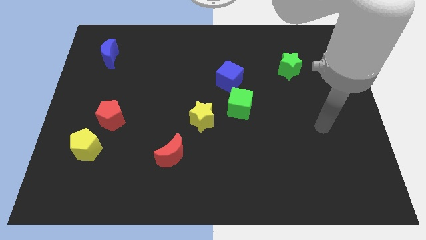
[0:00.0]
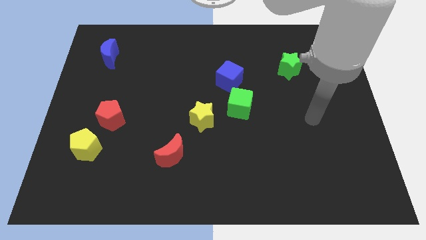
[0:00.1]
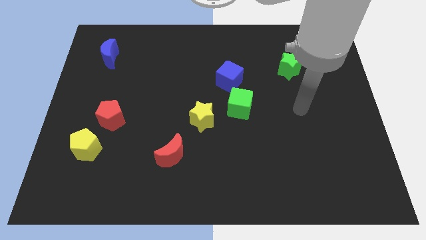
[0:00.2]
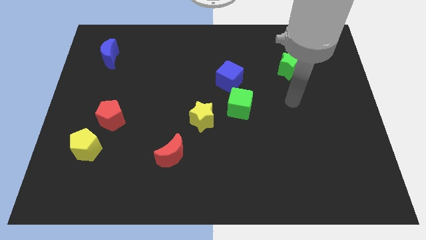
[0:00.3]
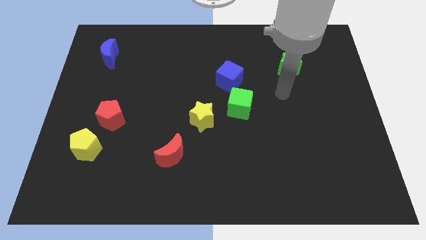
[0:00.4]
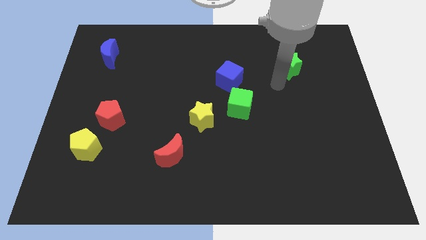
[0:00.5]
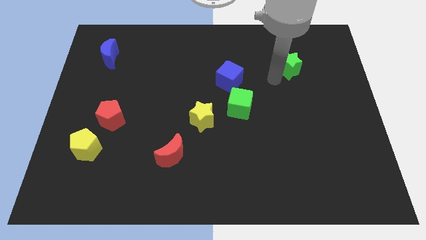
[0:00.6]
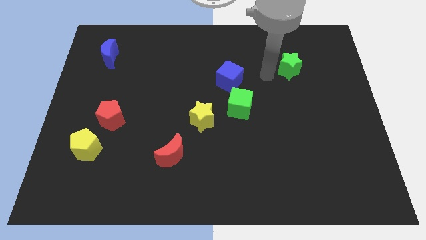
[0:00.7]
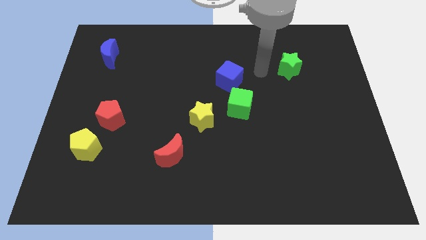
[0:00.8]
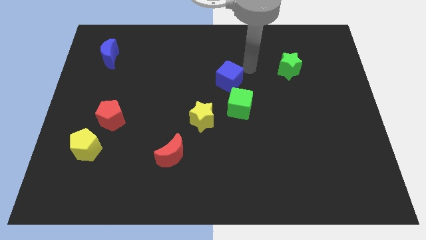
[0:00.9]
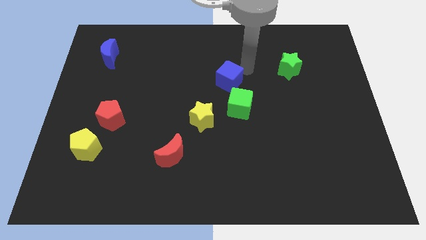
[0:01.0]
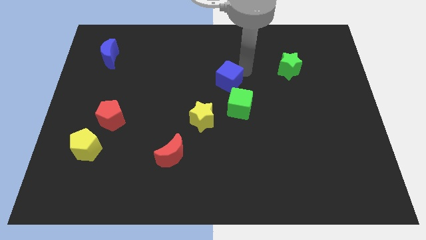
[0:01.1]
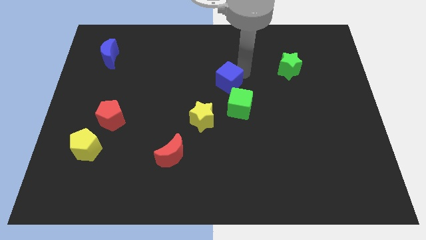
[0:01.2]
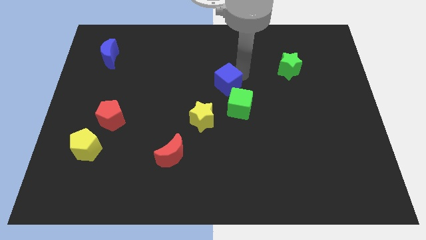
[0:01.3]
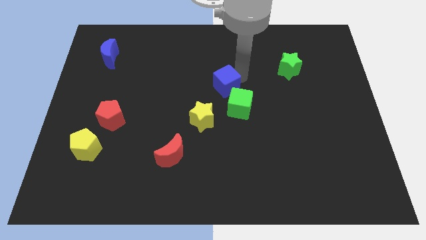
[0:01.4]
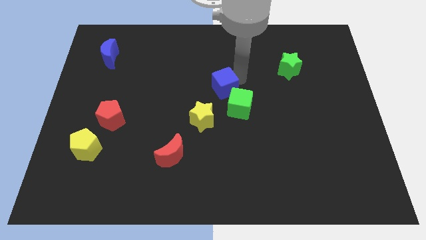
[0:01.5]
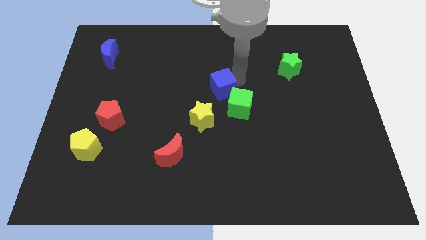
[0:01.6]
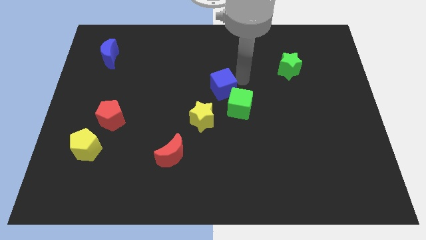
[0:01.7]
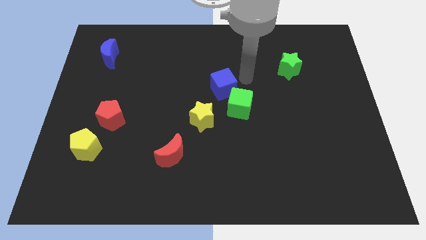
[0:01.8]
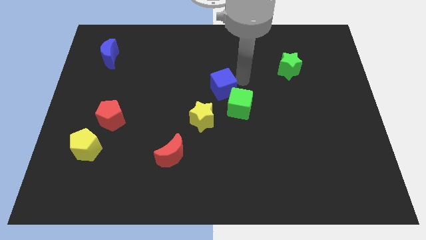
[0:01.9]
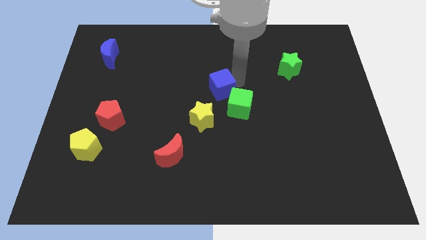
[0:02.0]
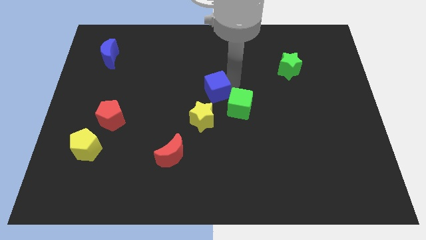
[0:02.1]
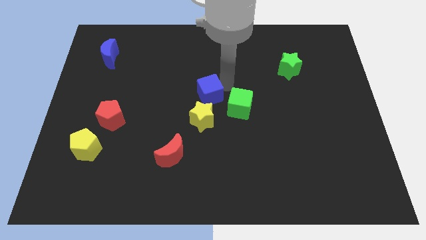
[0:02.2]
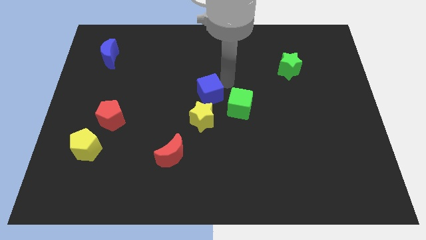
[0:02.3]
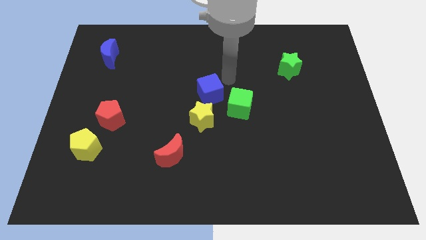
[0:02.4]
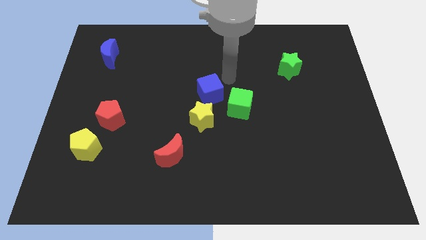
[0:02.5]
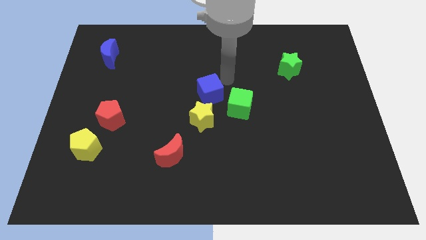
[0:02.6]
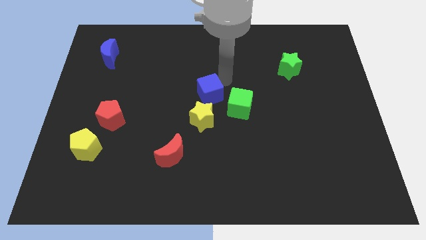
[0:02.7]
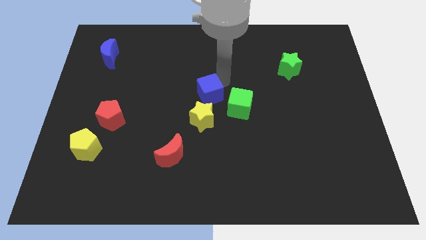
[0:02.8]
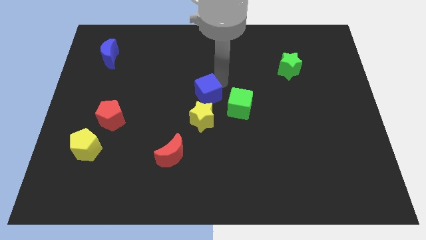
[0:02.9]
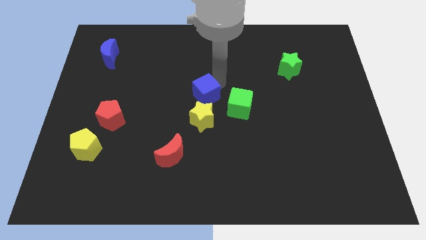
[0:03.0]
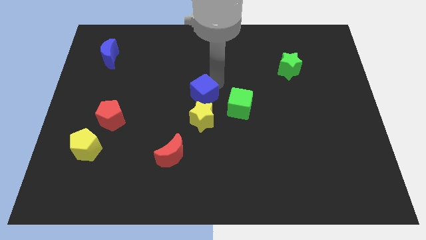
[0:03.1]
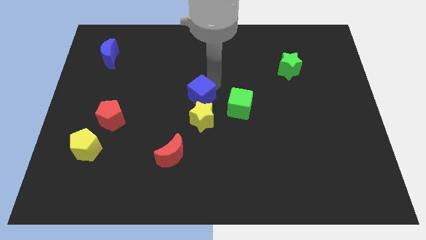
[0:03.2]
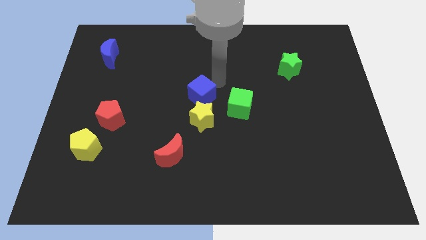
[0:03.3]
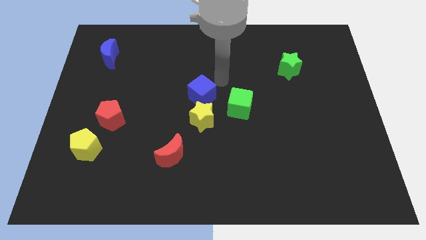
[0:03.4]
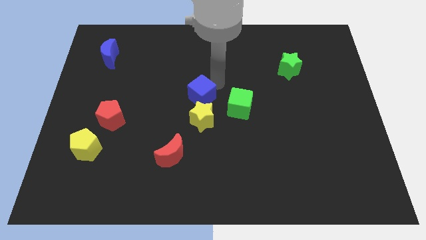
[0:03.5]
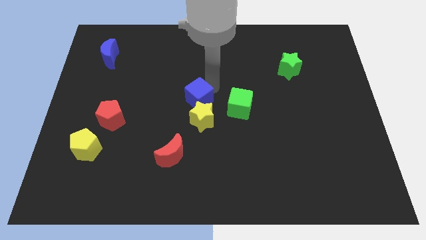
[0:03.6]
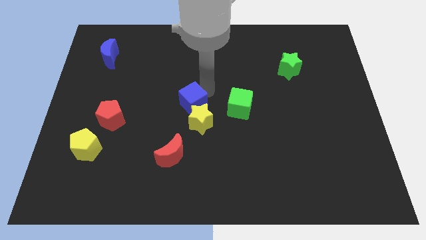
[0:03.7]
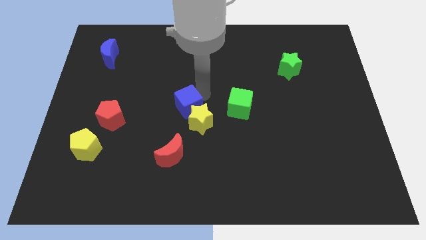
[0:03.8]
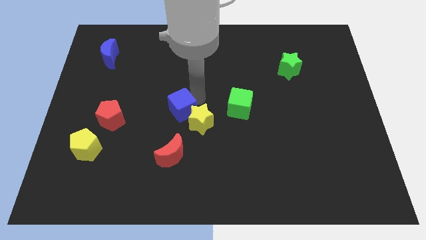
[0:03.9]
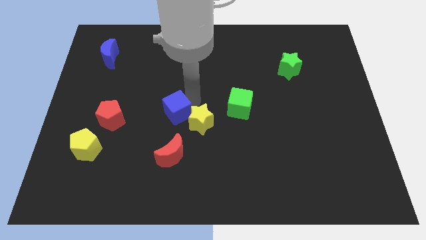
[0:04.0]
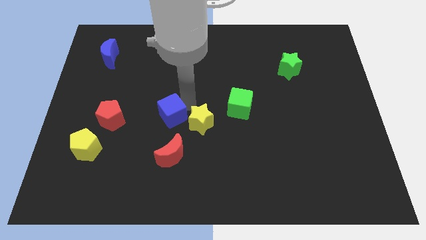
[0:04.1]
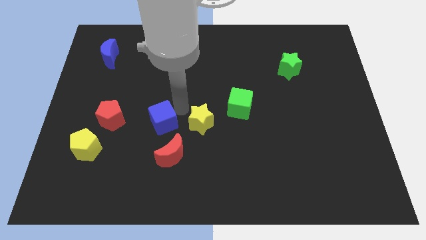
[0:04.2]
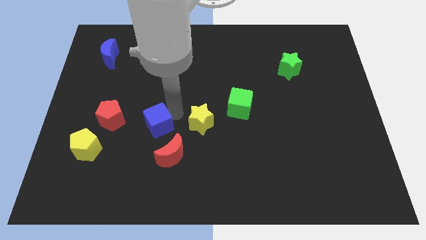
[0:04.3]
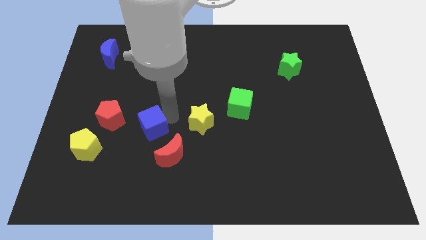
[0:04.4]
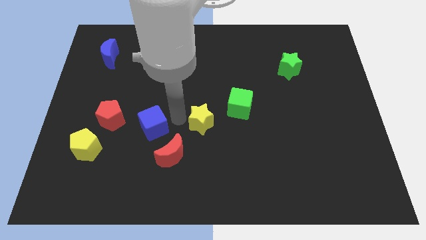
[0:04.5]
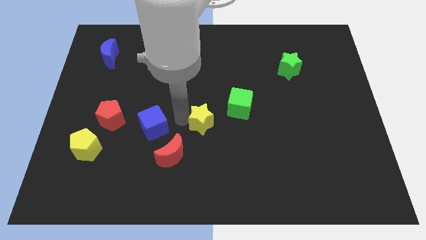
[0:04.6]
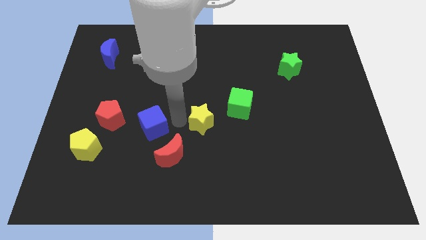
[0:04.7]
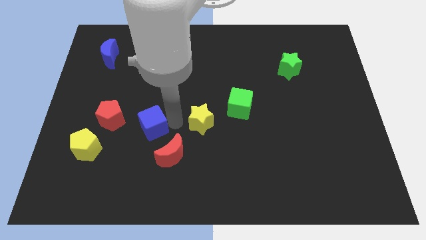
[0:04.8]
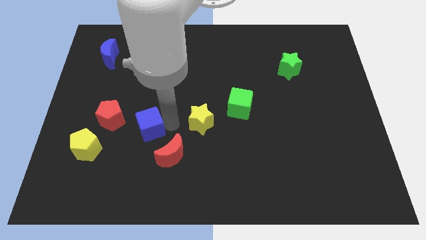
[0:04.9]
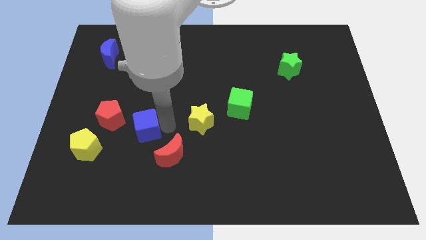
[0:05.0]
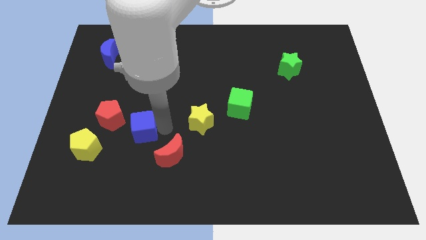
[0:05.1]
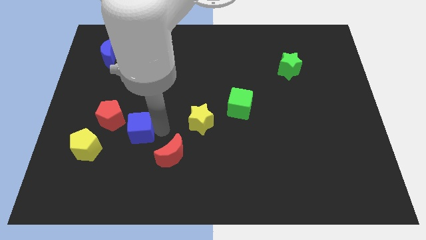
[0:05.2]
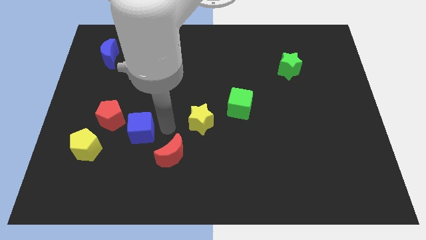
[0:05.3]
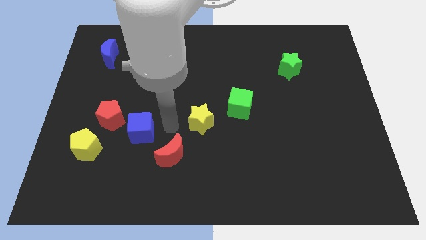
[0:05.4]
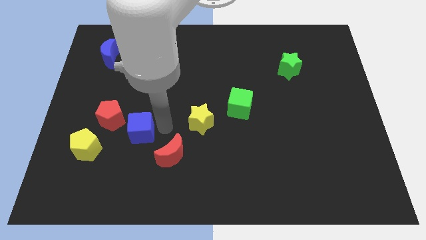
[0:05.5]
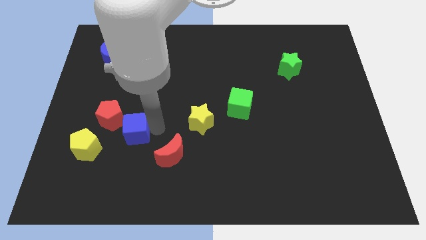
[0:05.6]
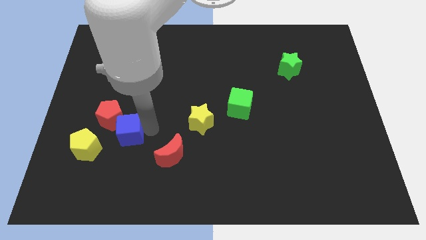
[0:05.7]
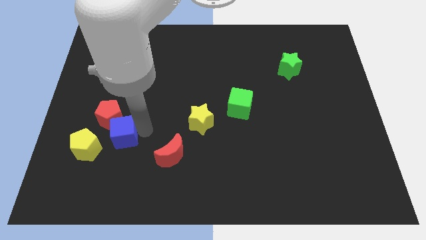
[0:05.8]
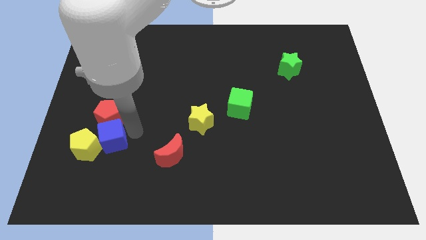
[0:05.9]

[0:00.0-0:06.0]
move the blue cube to the yellow pentagon

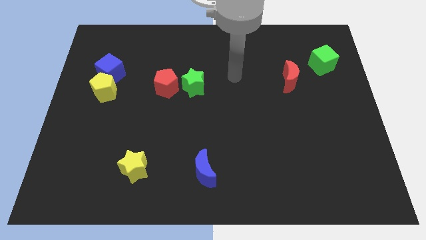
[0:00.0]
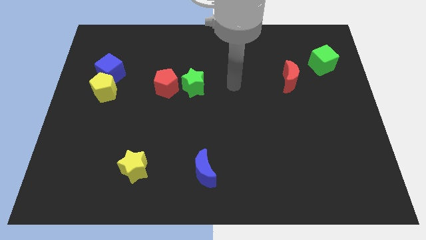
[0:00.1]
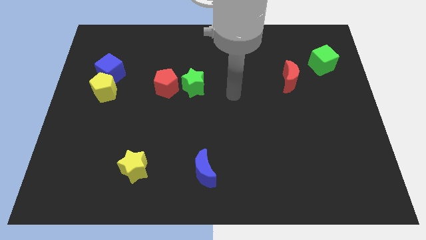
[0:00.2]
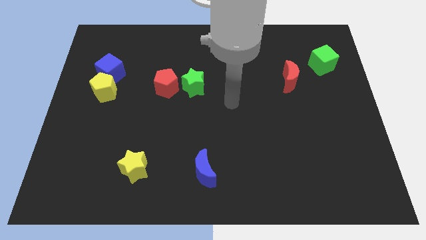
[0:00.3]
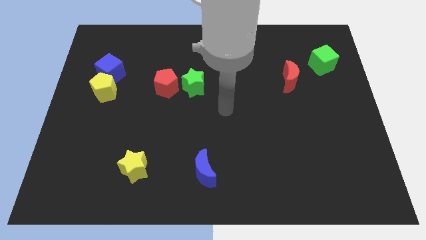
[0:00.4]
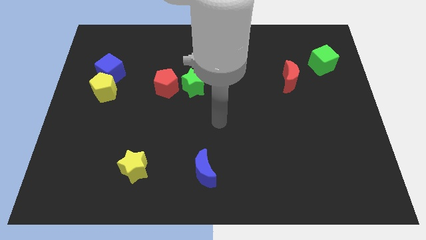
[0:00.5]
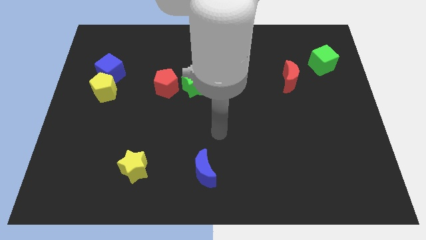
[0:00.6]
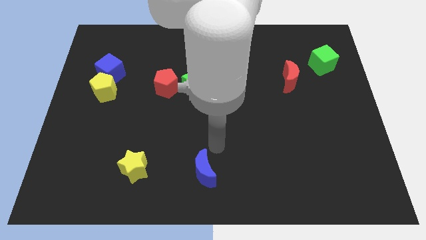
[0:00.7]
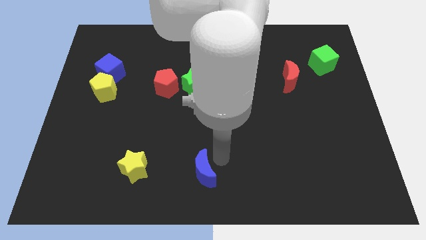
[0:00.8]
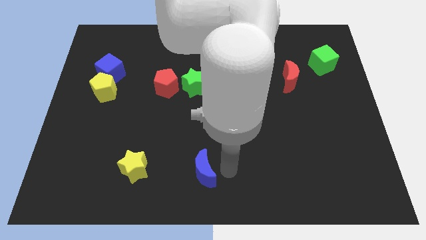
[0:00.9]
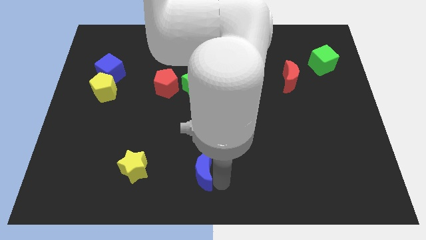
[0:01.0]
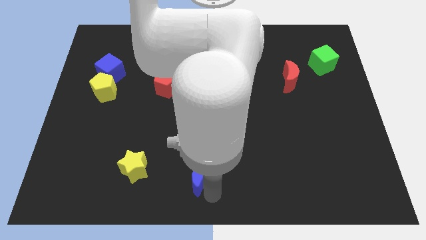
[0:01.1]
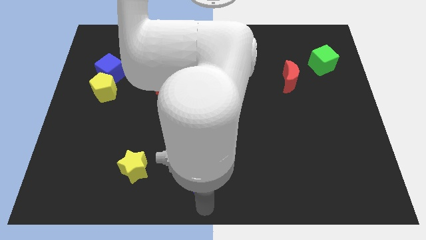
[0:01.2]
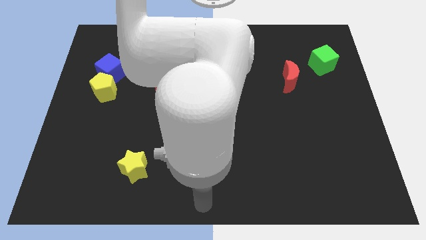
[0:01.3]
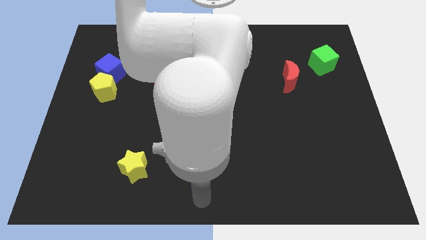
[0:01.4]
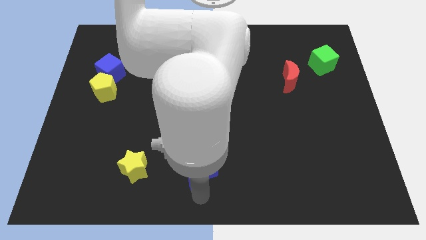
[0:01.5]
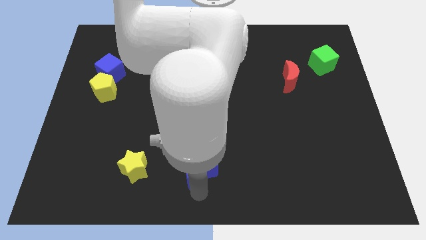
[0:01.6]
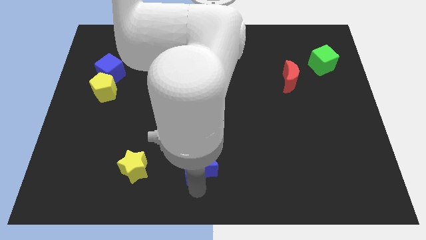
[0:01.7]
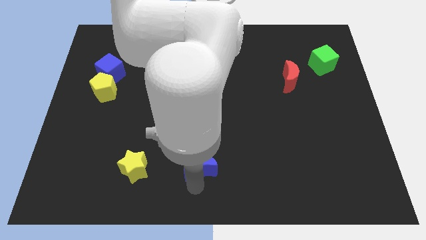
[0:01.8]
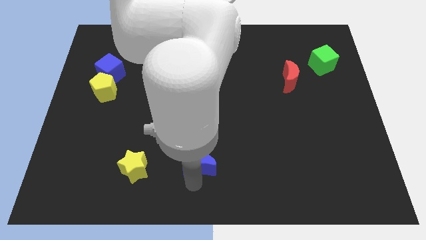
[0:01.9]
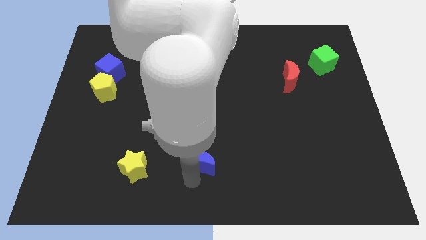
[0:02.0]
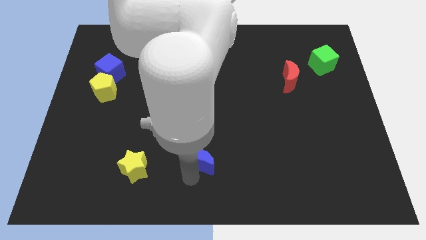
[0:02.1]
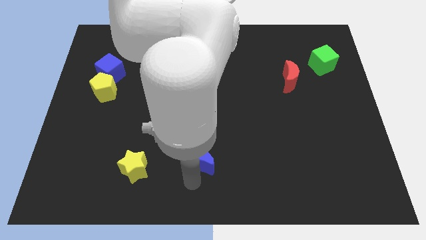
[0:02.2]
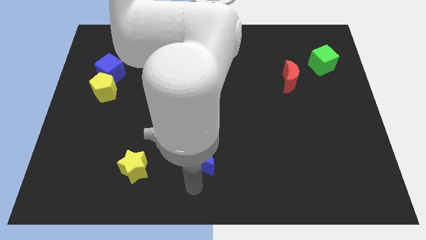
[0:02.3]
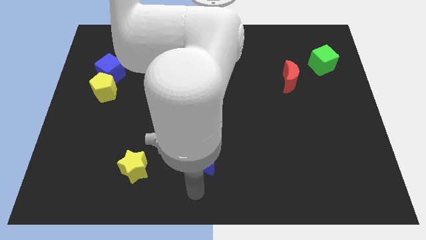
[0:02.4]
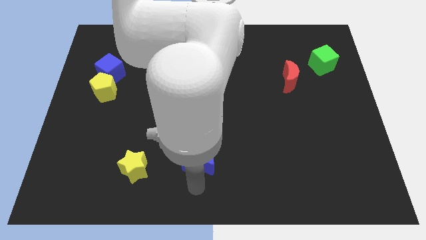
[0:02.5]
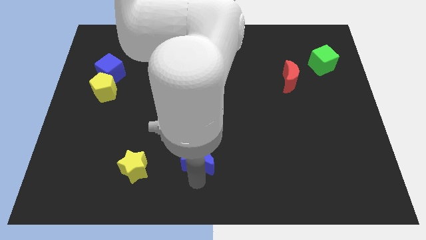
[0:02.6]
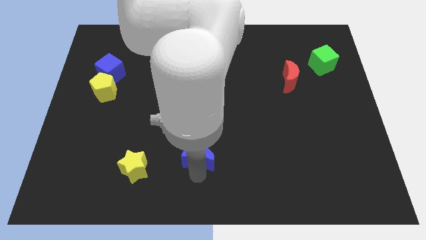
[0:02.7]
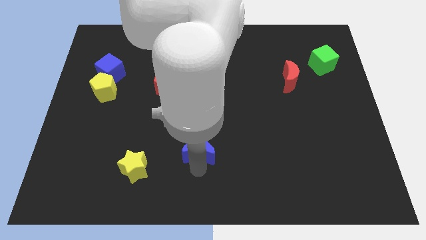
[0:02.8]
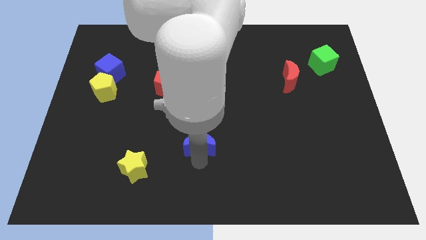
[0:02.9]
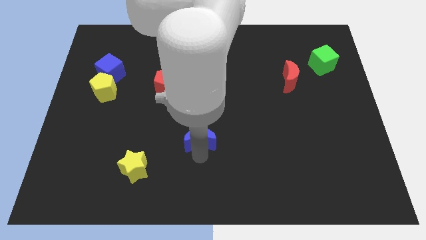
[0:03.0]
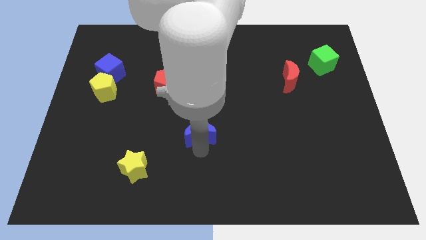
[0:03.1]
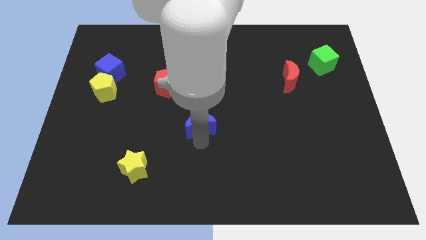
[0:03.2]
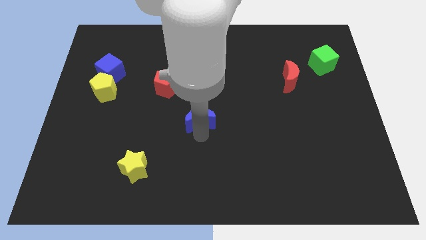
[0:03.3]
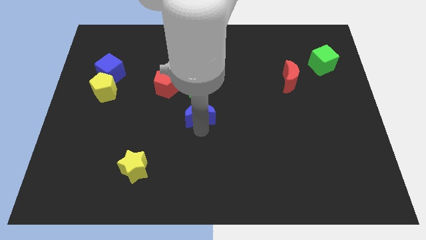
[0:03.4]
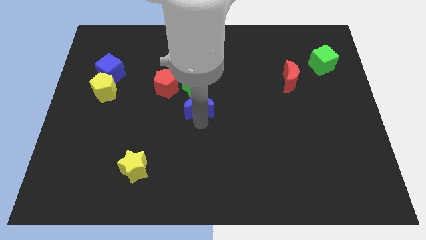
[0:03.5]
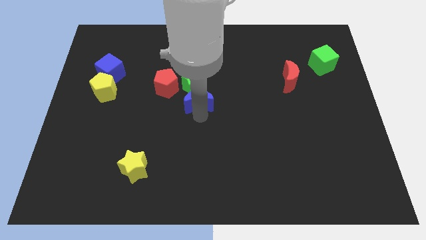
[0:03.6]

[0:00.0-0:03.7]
move the blue moon to the green star
